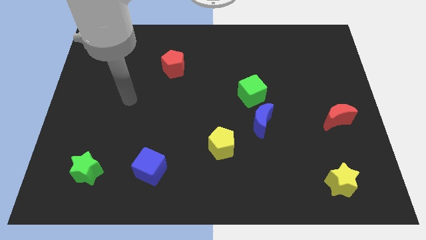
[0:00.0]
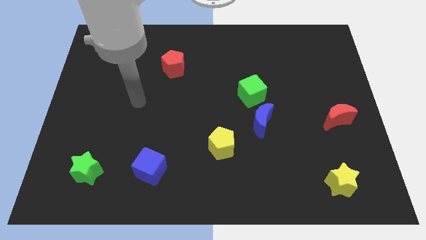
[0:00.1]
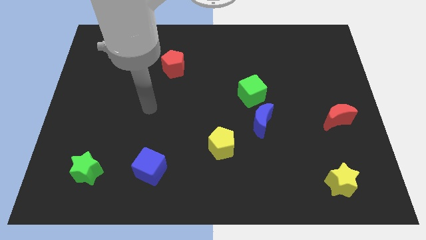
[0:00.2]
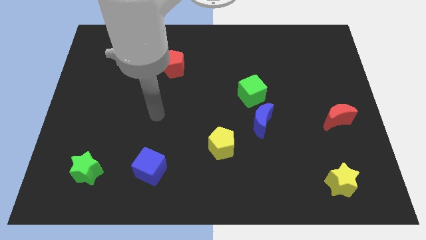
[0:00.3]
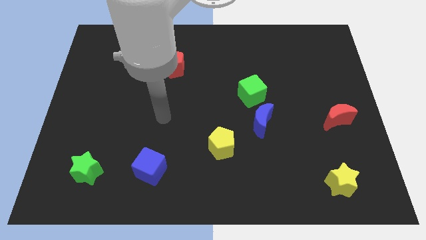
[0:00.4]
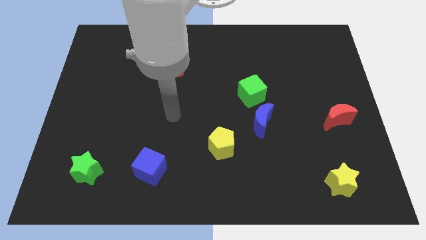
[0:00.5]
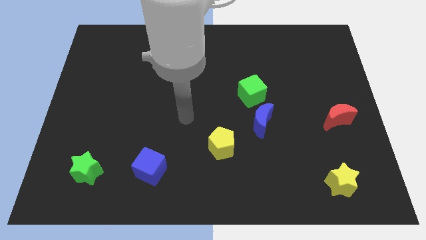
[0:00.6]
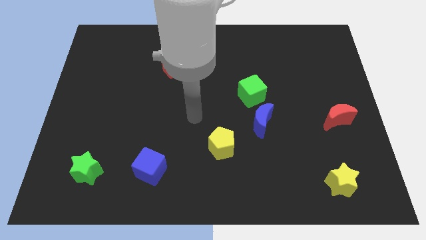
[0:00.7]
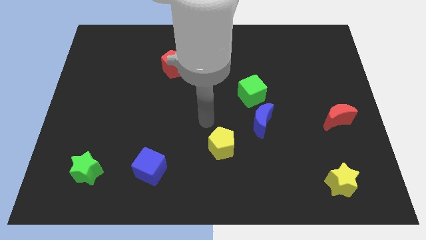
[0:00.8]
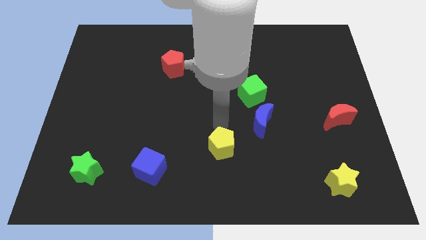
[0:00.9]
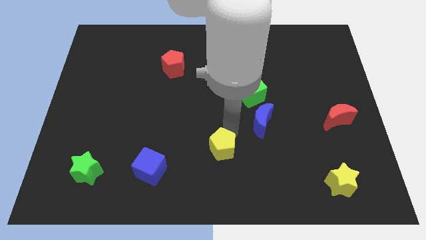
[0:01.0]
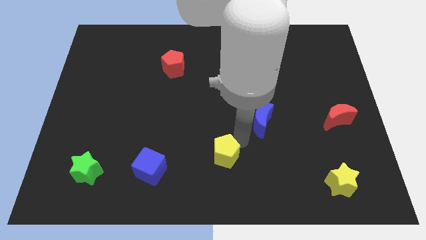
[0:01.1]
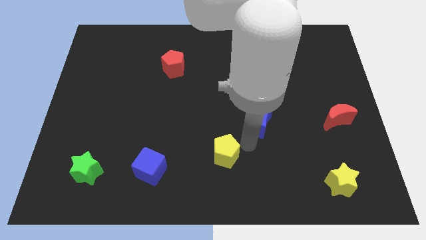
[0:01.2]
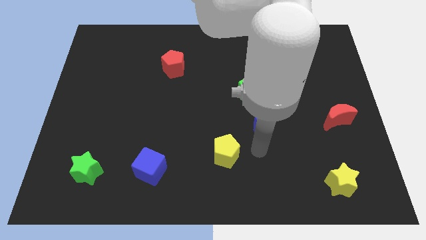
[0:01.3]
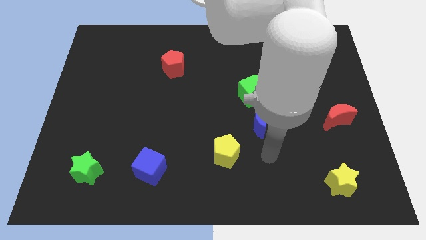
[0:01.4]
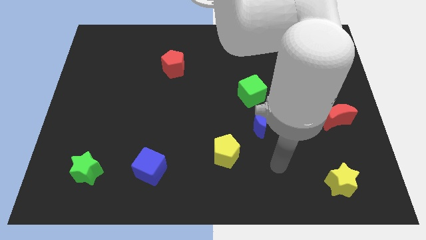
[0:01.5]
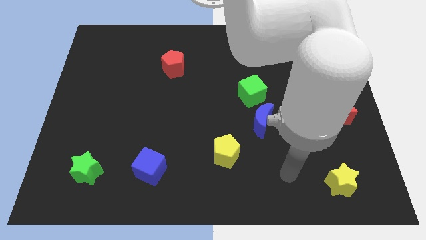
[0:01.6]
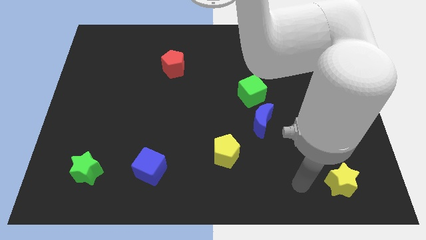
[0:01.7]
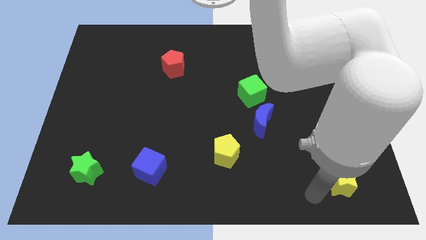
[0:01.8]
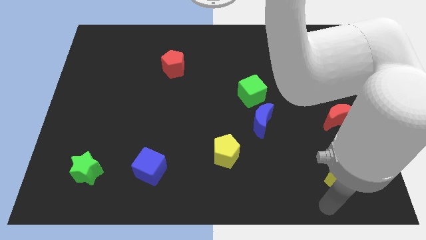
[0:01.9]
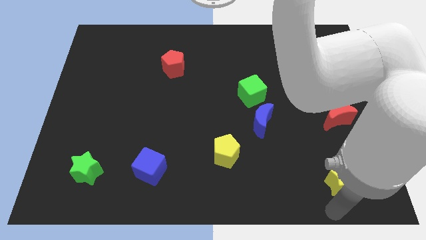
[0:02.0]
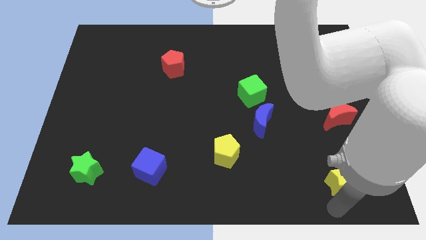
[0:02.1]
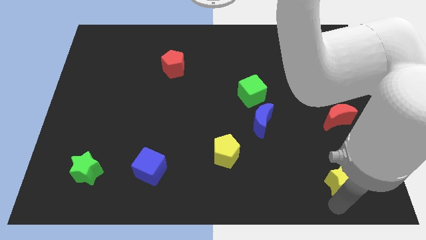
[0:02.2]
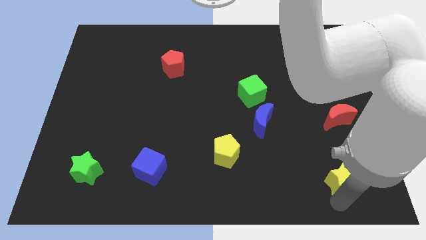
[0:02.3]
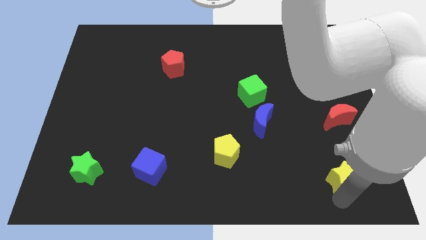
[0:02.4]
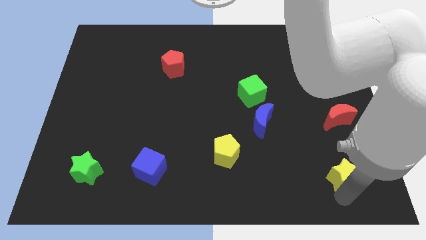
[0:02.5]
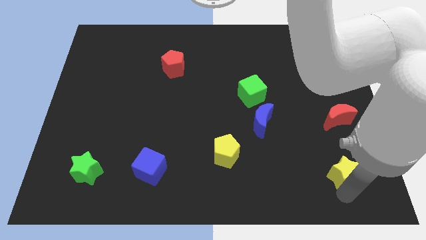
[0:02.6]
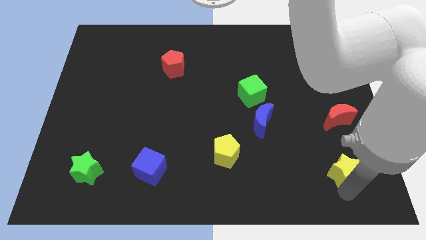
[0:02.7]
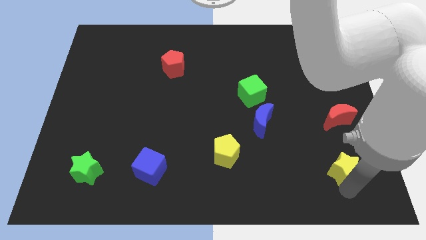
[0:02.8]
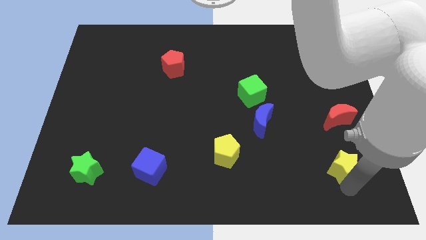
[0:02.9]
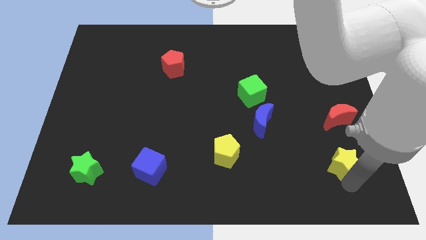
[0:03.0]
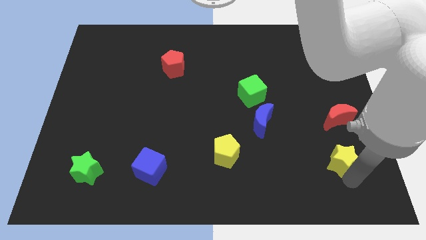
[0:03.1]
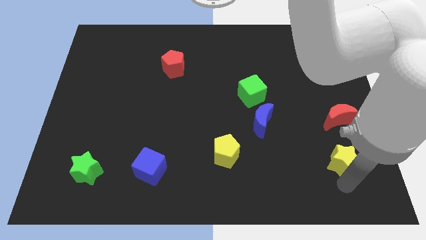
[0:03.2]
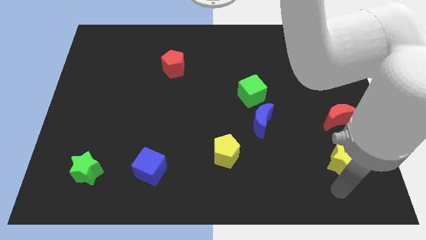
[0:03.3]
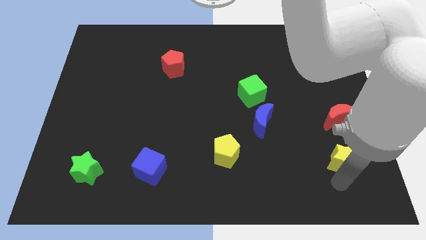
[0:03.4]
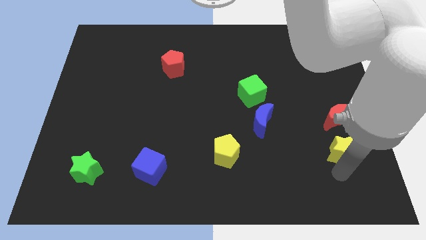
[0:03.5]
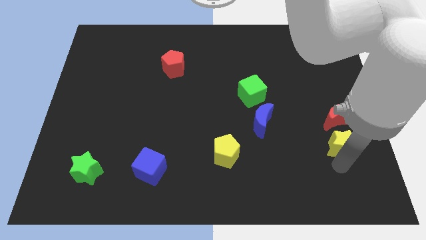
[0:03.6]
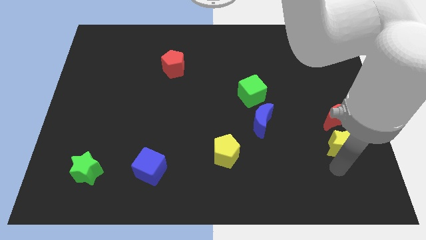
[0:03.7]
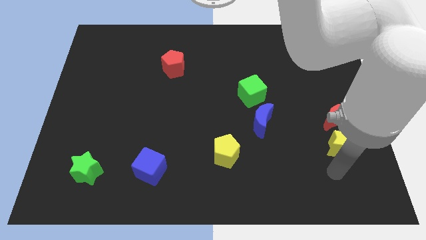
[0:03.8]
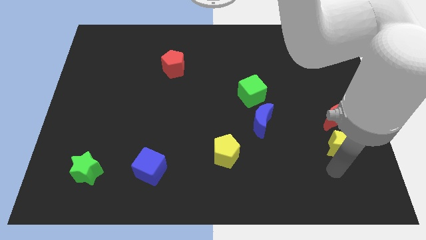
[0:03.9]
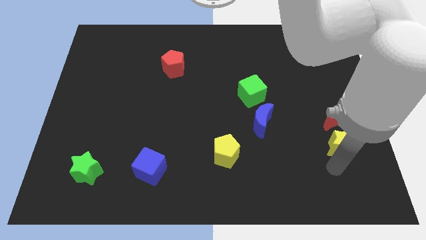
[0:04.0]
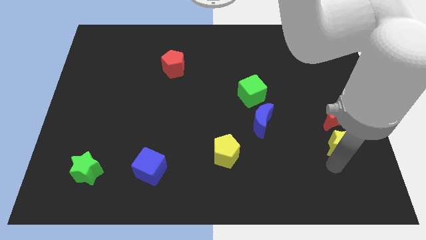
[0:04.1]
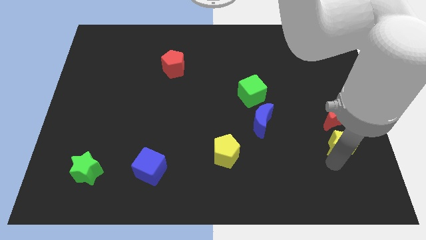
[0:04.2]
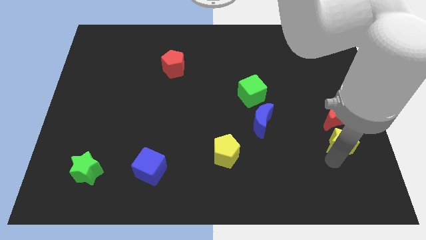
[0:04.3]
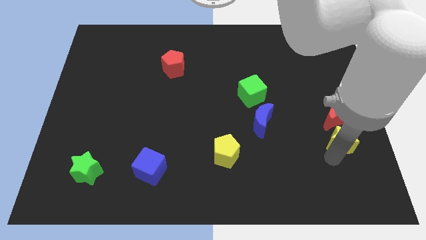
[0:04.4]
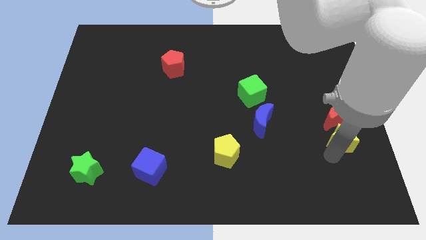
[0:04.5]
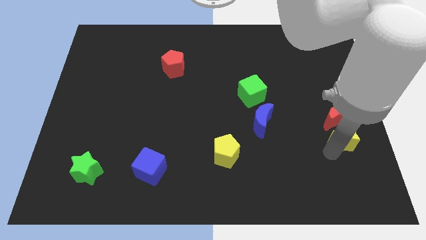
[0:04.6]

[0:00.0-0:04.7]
push the yellow star close to the red moon

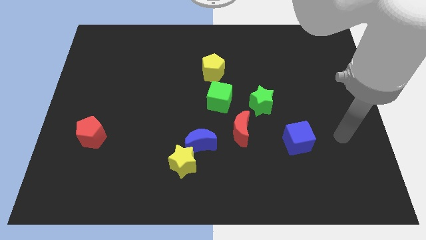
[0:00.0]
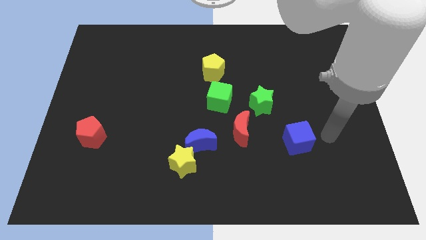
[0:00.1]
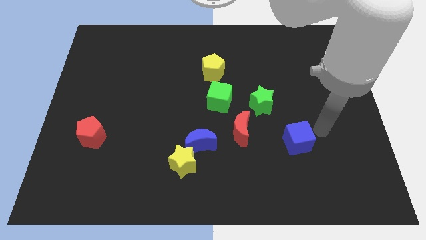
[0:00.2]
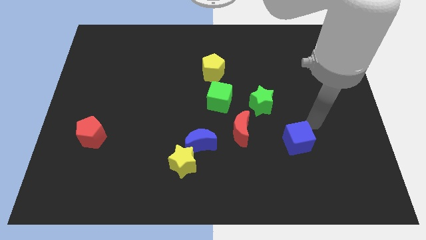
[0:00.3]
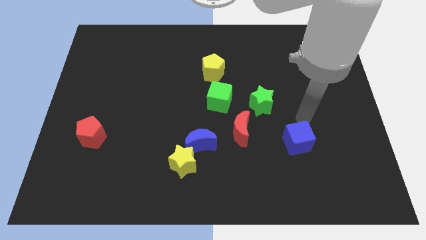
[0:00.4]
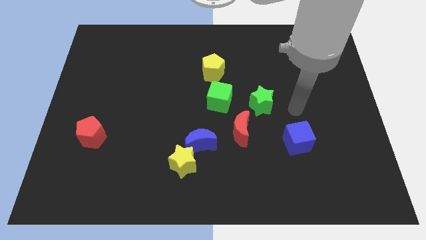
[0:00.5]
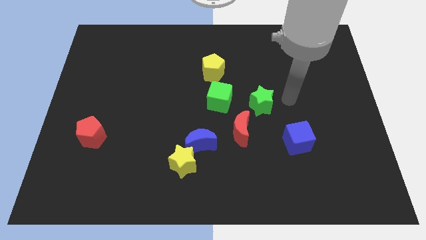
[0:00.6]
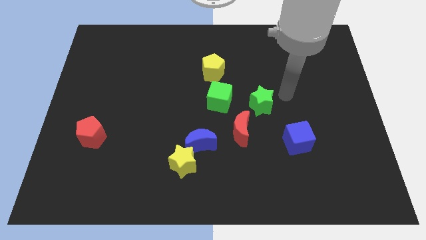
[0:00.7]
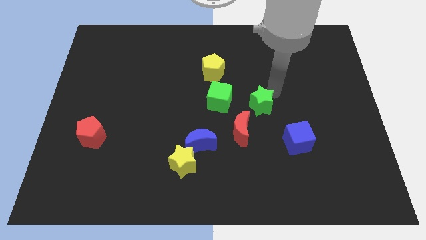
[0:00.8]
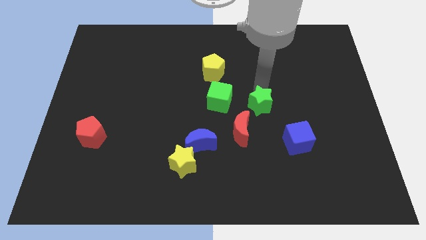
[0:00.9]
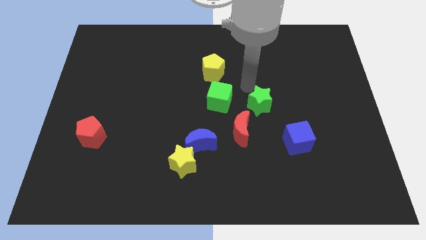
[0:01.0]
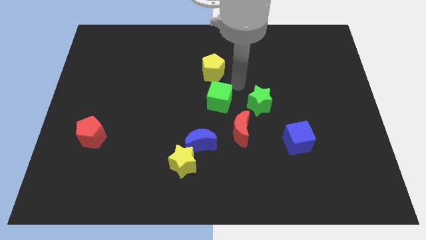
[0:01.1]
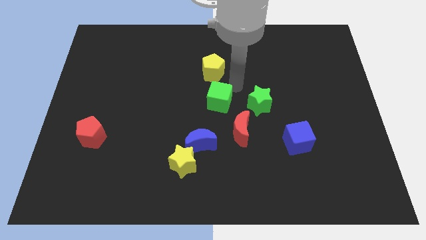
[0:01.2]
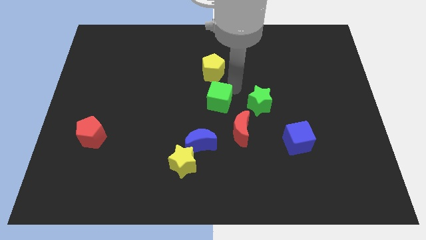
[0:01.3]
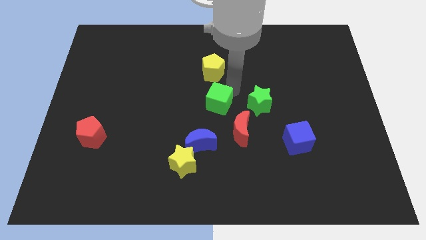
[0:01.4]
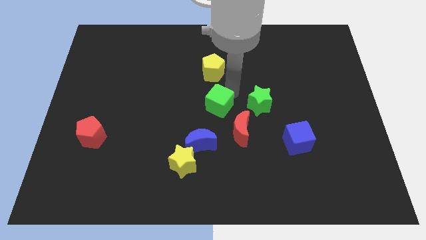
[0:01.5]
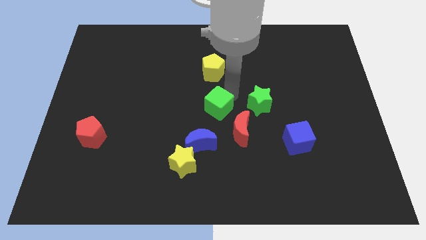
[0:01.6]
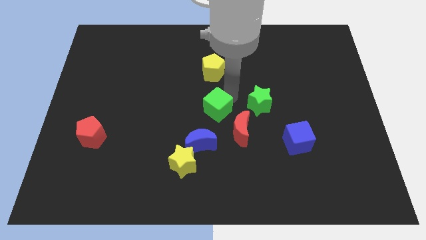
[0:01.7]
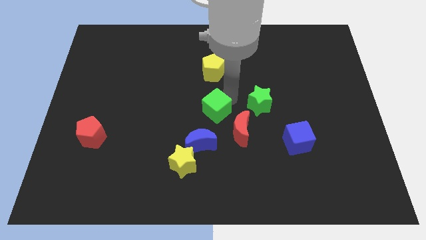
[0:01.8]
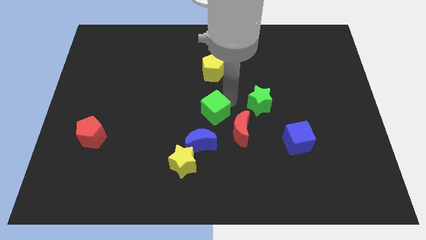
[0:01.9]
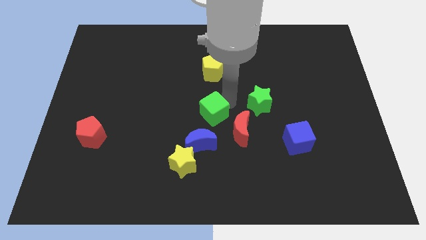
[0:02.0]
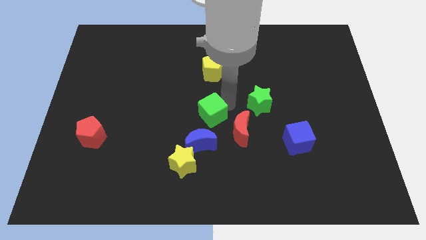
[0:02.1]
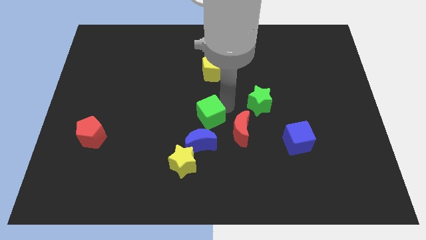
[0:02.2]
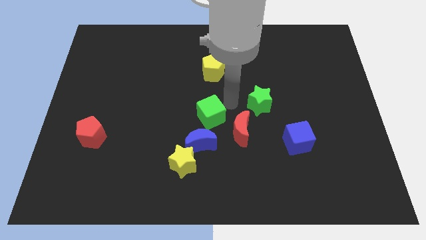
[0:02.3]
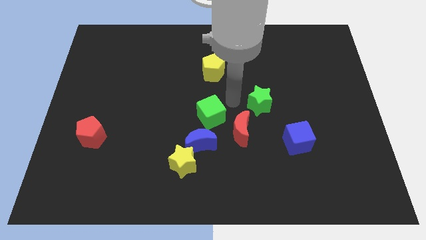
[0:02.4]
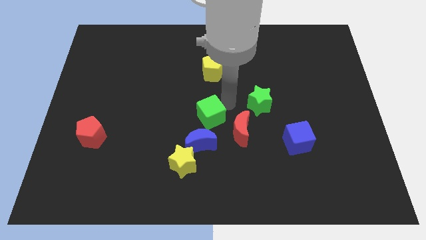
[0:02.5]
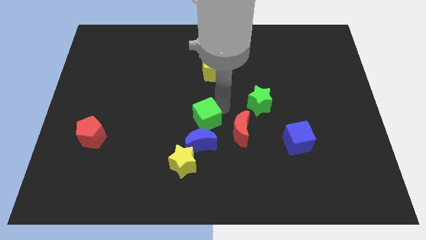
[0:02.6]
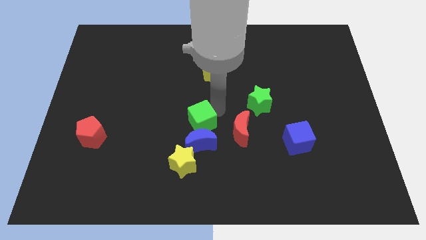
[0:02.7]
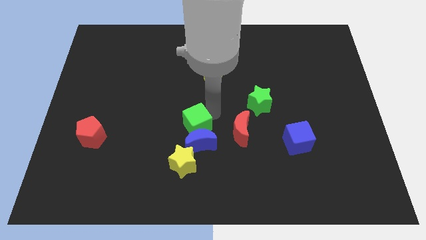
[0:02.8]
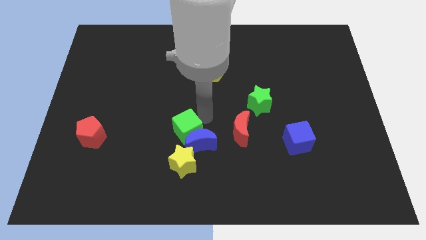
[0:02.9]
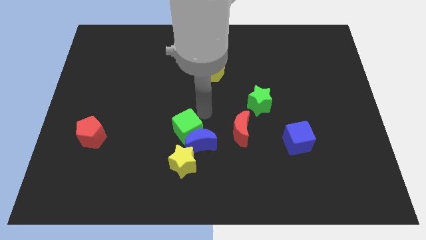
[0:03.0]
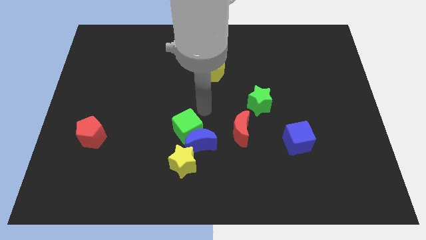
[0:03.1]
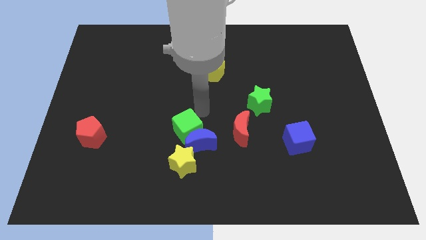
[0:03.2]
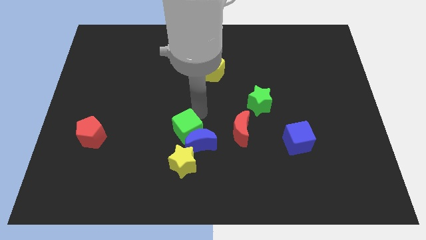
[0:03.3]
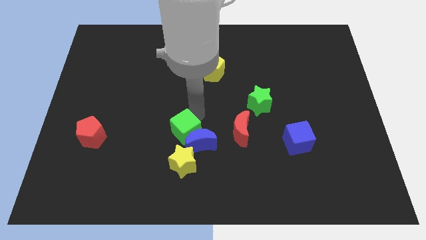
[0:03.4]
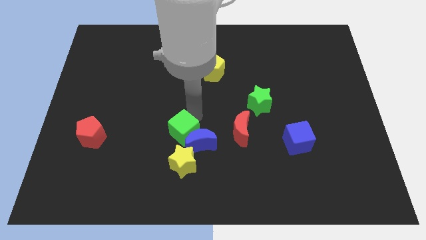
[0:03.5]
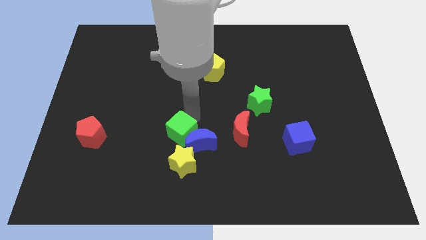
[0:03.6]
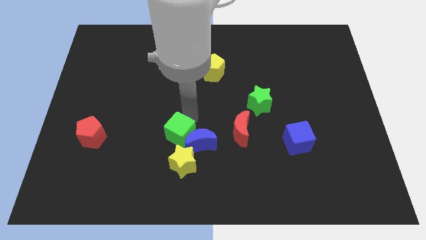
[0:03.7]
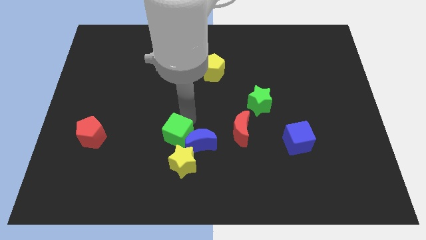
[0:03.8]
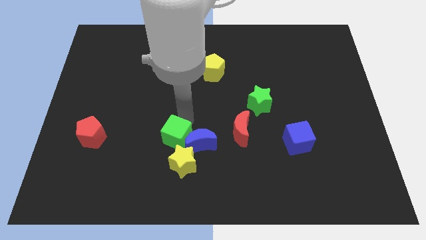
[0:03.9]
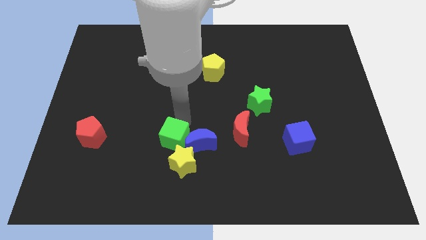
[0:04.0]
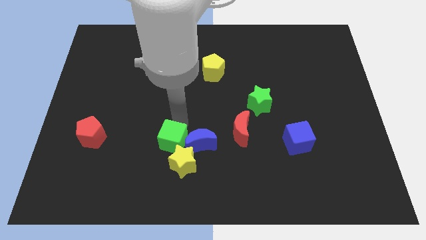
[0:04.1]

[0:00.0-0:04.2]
put the green cube close to the yellow star
